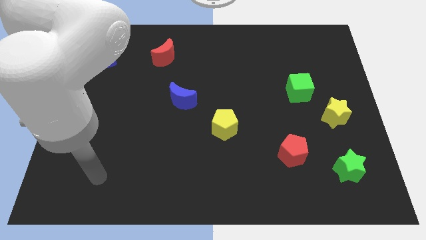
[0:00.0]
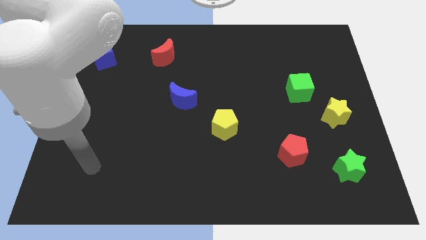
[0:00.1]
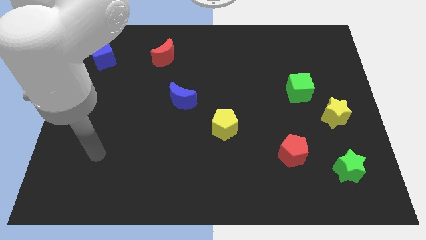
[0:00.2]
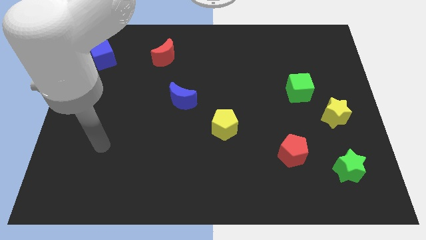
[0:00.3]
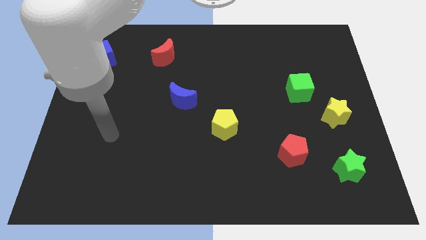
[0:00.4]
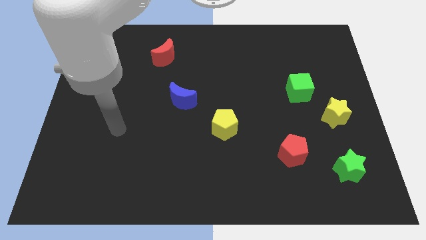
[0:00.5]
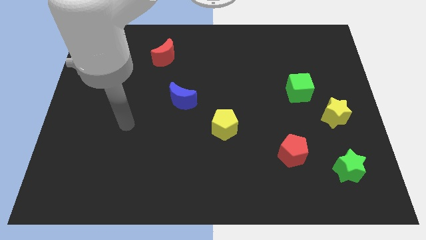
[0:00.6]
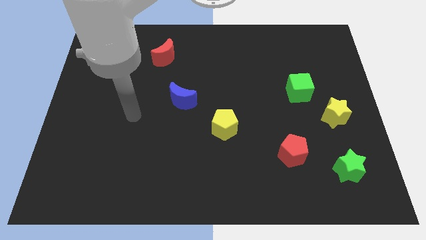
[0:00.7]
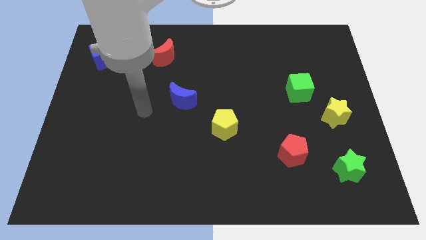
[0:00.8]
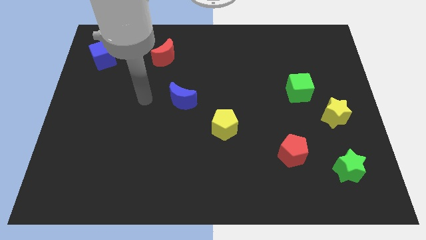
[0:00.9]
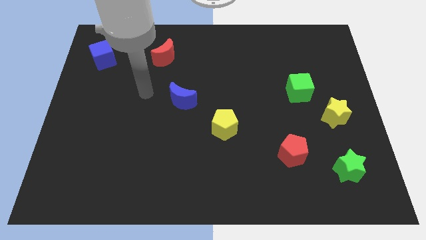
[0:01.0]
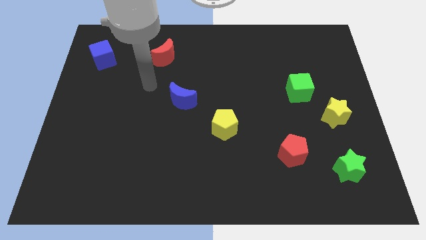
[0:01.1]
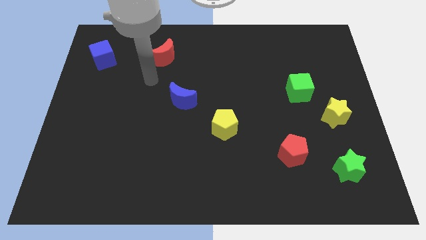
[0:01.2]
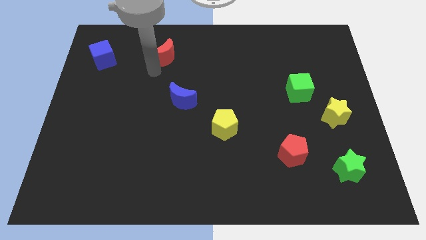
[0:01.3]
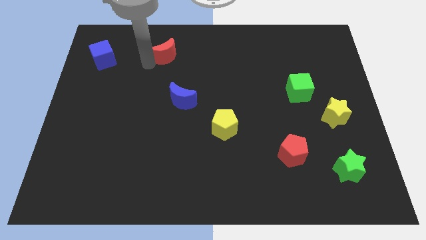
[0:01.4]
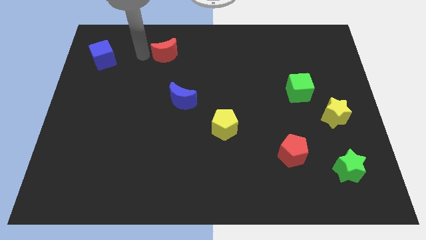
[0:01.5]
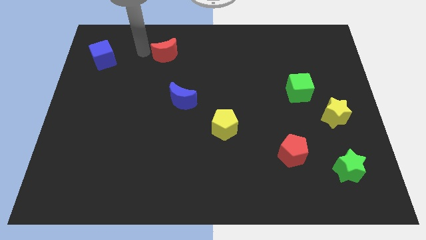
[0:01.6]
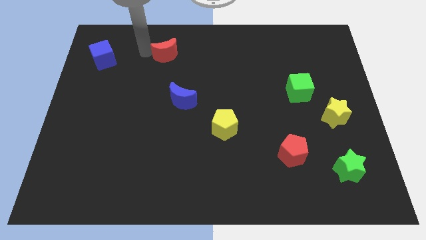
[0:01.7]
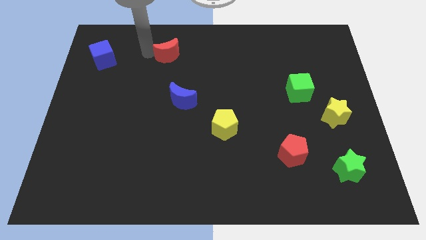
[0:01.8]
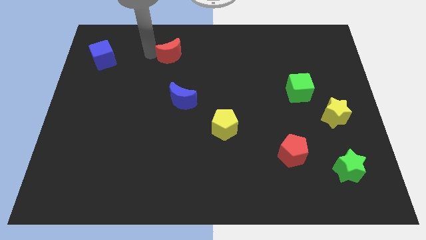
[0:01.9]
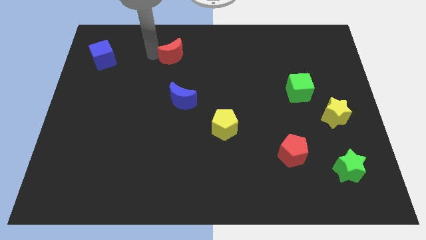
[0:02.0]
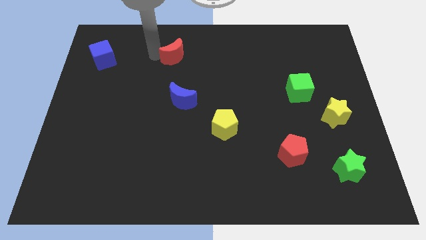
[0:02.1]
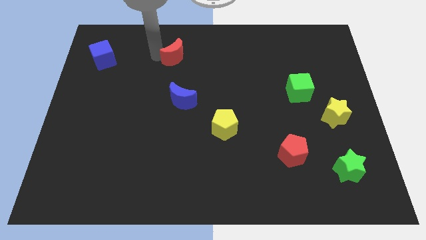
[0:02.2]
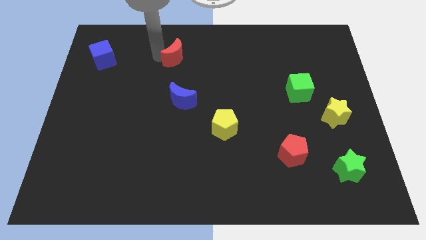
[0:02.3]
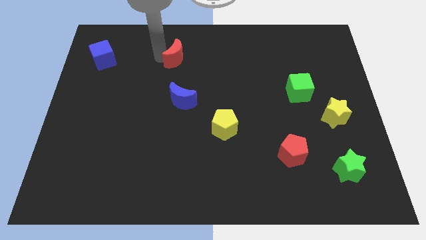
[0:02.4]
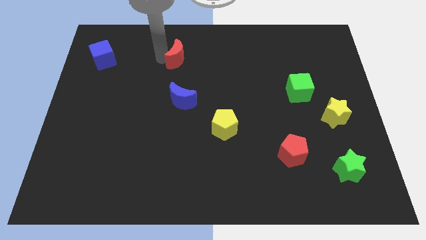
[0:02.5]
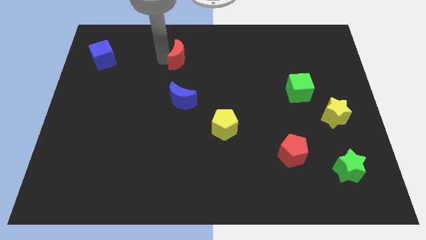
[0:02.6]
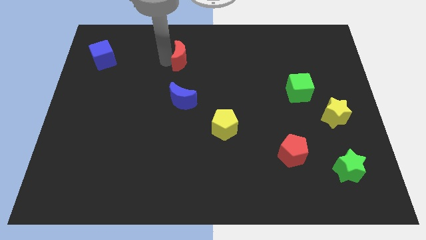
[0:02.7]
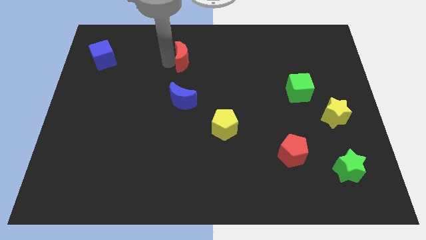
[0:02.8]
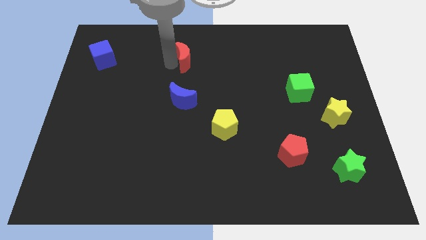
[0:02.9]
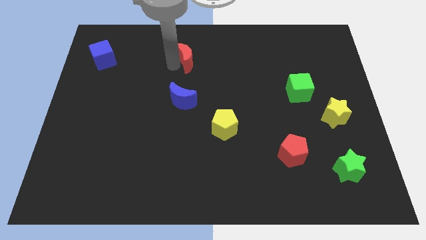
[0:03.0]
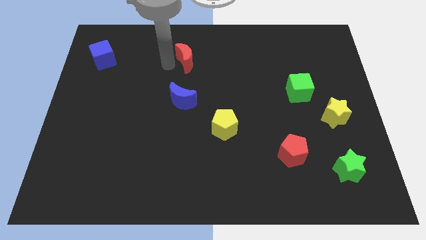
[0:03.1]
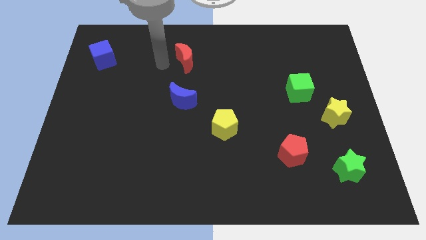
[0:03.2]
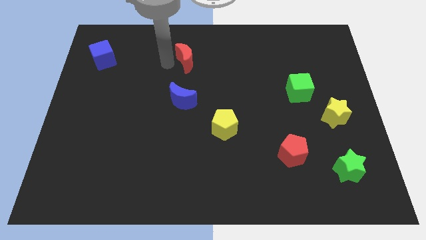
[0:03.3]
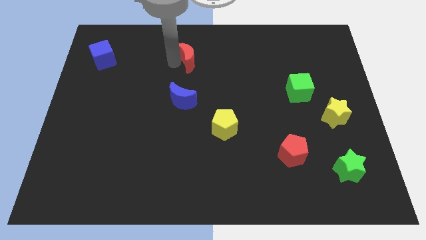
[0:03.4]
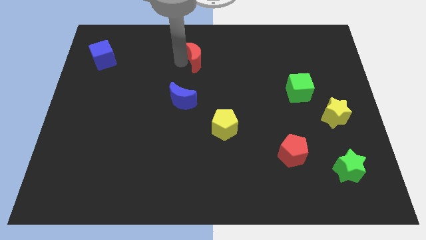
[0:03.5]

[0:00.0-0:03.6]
slightly move the red moon to the right

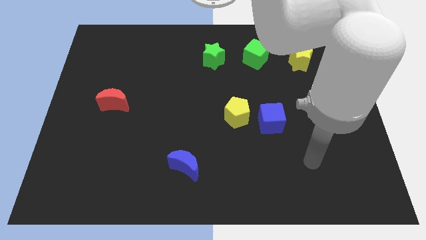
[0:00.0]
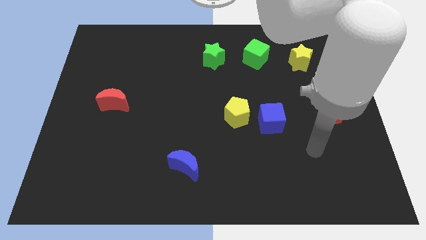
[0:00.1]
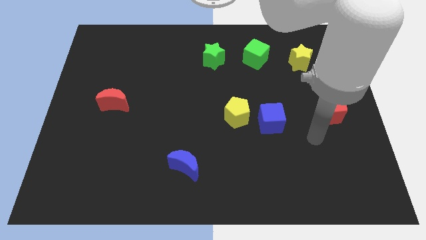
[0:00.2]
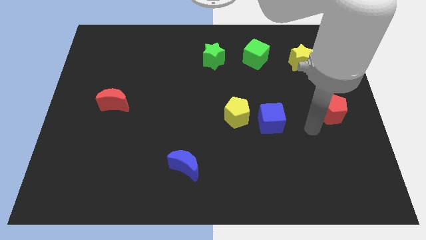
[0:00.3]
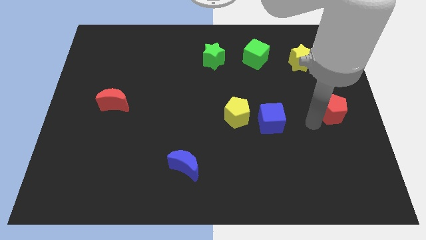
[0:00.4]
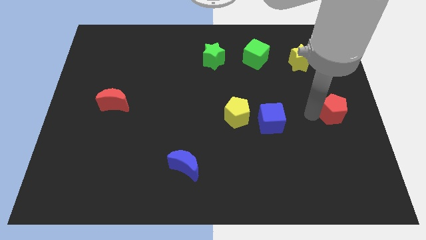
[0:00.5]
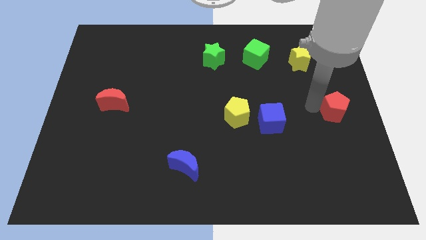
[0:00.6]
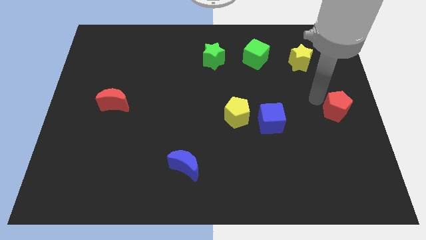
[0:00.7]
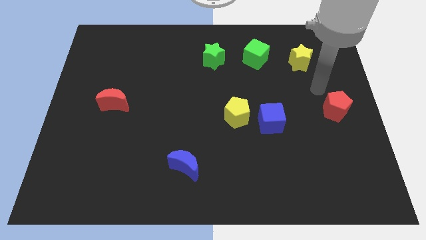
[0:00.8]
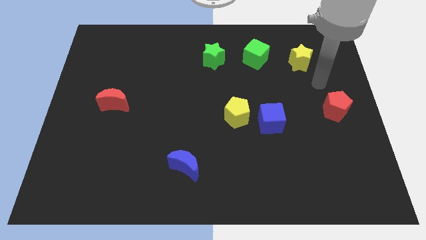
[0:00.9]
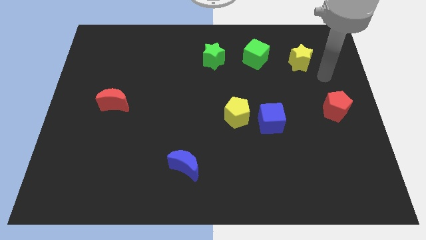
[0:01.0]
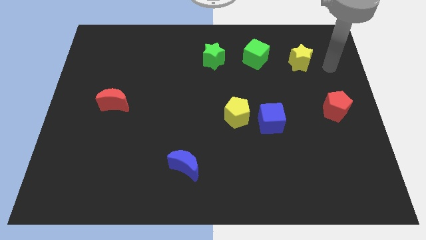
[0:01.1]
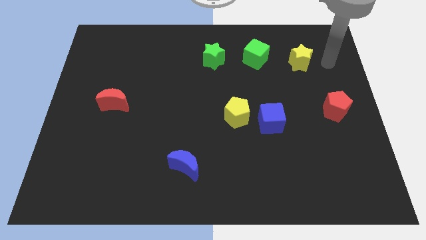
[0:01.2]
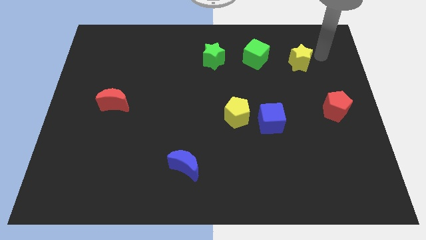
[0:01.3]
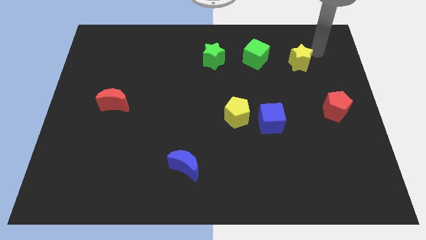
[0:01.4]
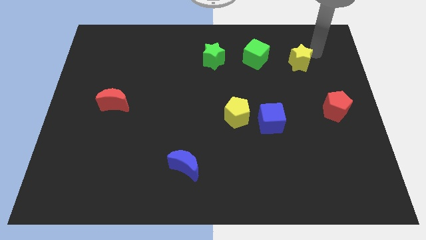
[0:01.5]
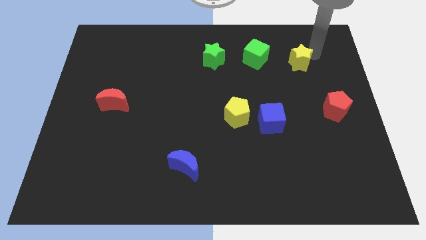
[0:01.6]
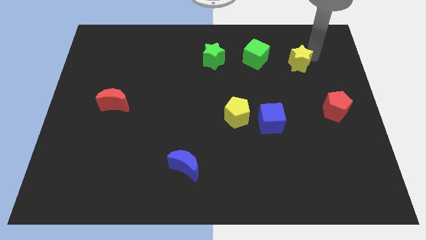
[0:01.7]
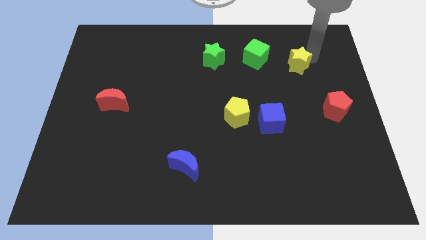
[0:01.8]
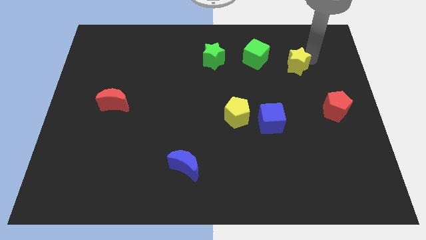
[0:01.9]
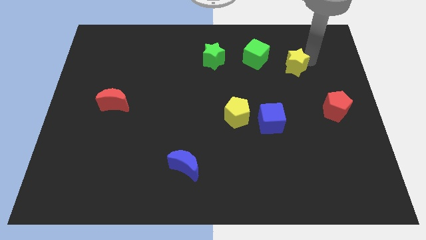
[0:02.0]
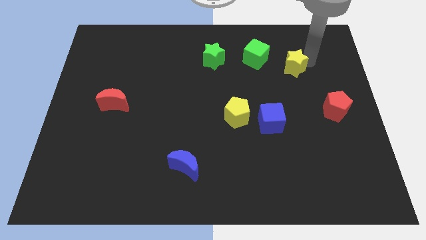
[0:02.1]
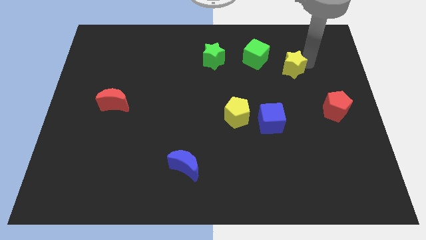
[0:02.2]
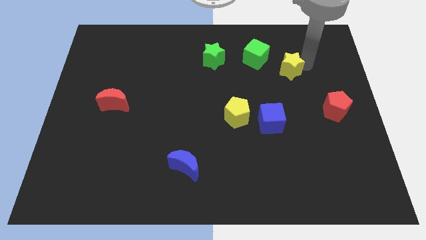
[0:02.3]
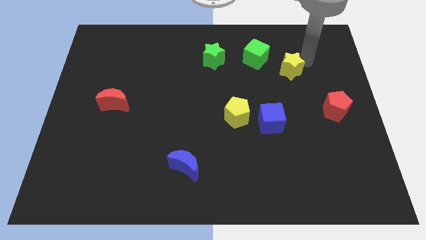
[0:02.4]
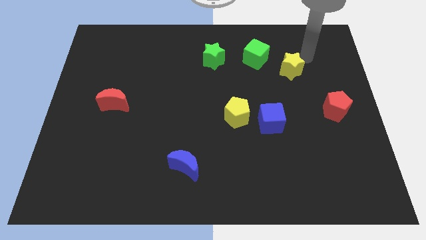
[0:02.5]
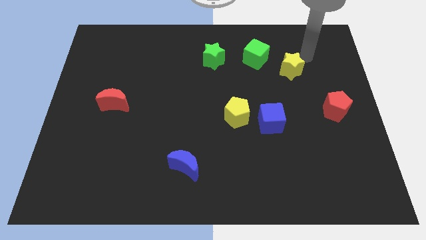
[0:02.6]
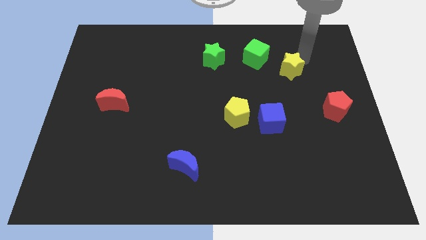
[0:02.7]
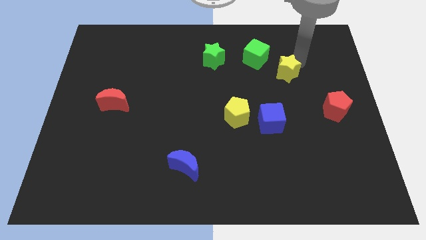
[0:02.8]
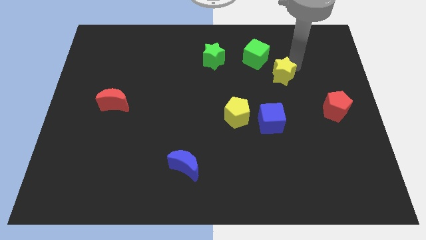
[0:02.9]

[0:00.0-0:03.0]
move the yellow star downwards and then left a little

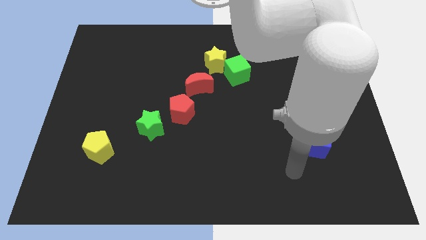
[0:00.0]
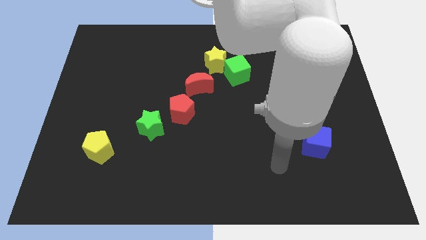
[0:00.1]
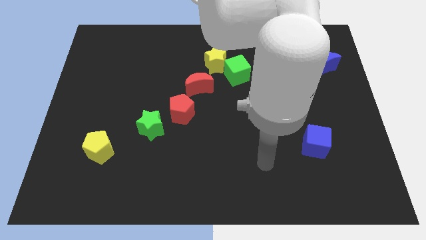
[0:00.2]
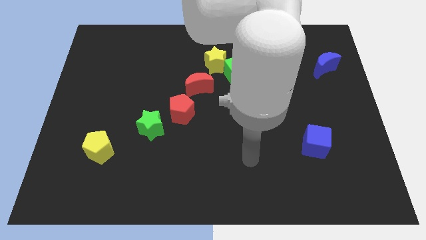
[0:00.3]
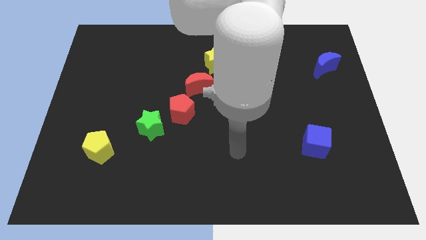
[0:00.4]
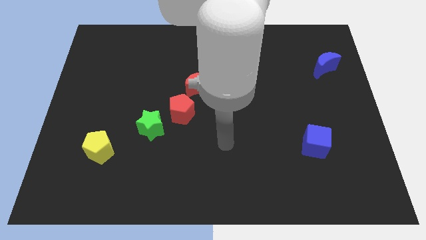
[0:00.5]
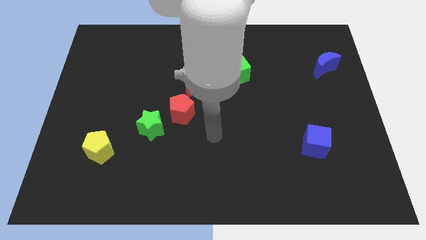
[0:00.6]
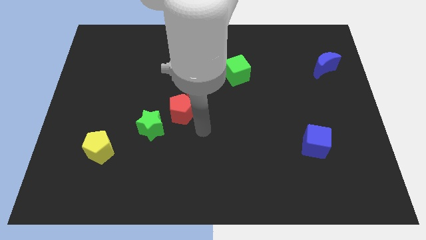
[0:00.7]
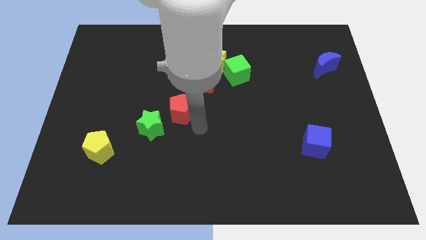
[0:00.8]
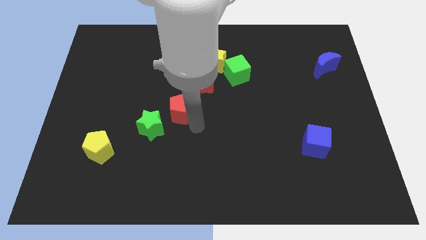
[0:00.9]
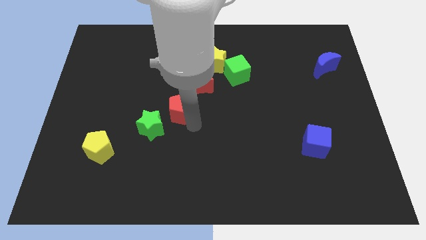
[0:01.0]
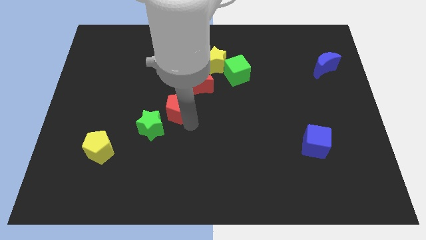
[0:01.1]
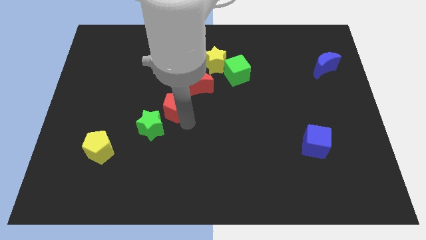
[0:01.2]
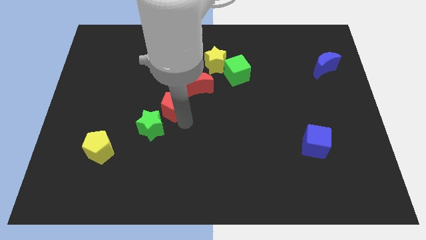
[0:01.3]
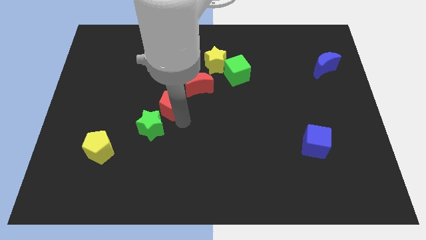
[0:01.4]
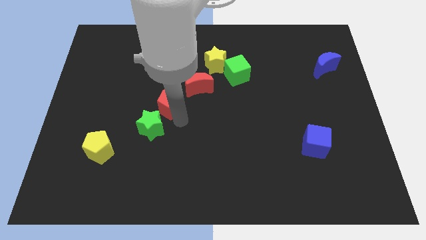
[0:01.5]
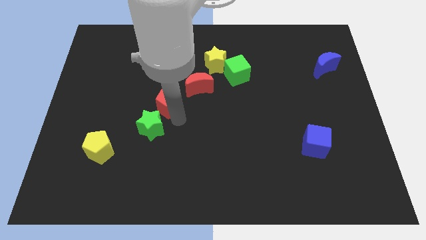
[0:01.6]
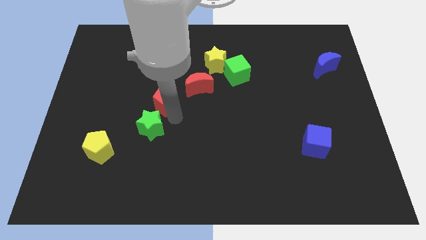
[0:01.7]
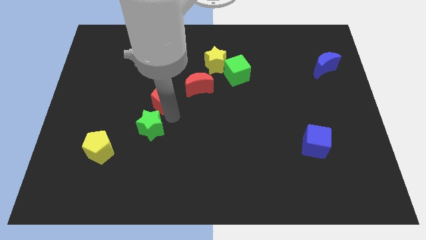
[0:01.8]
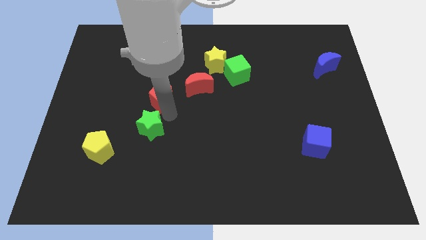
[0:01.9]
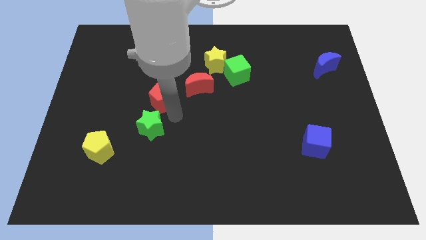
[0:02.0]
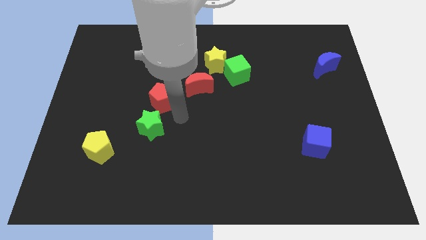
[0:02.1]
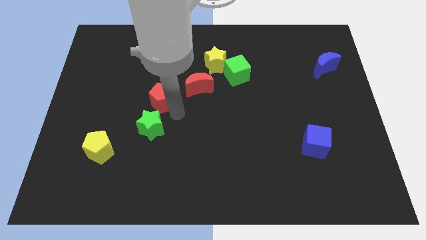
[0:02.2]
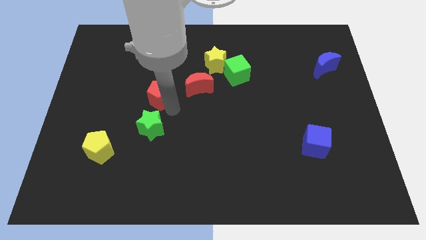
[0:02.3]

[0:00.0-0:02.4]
slightly slide the red pentagon up and left
